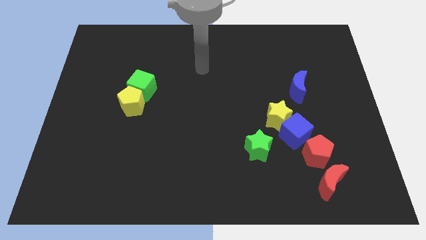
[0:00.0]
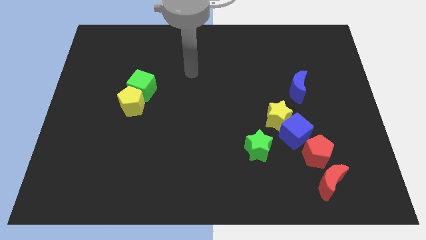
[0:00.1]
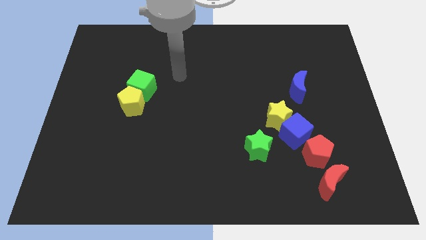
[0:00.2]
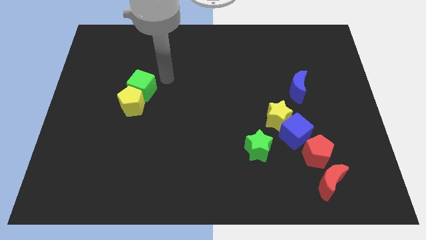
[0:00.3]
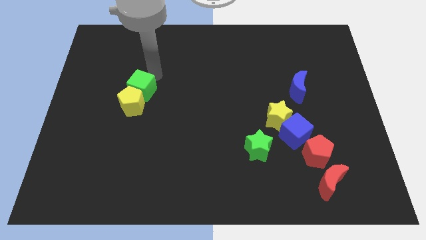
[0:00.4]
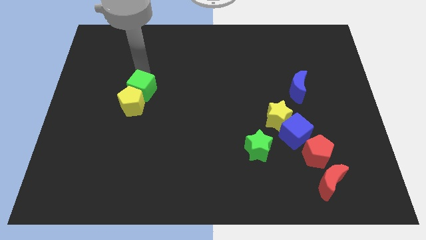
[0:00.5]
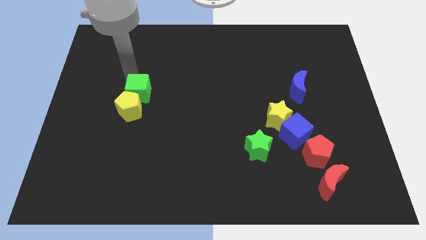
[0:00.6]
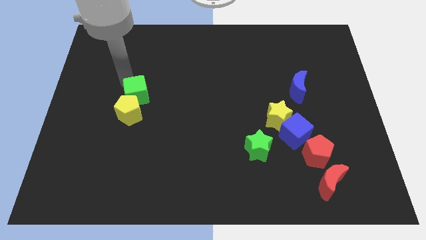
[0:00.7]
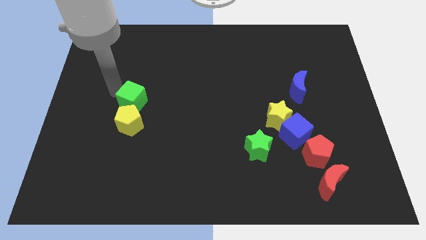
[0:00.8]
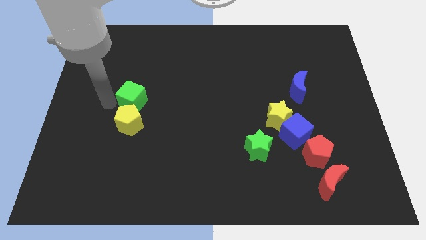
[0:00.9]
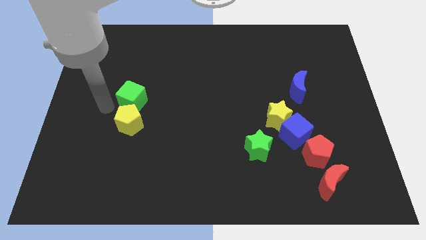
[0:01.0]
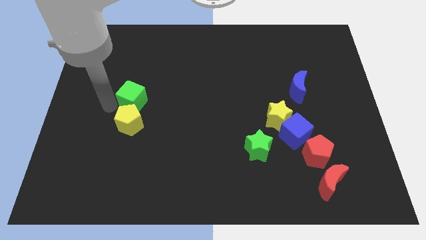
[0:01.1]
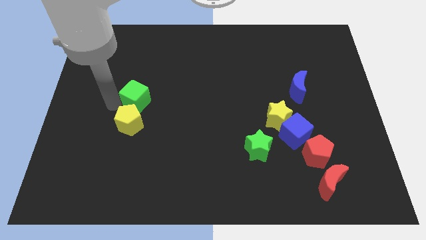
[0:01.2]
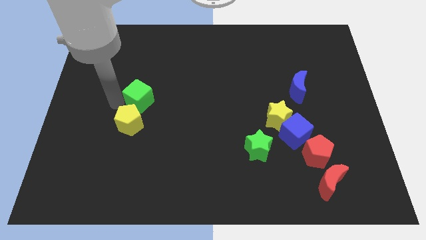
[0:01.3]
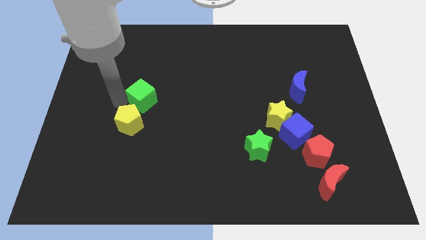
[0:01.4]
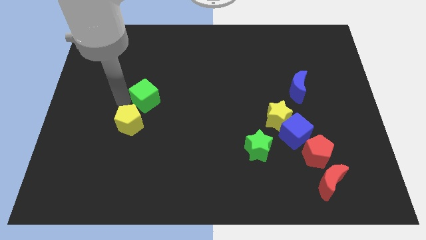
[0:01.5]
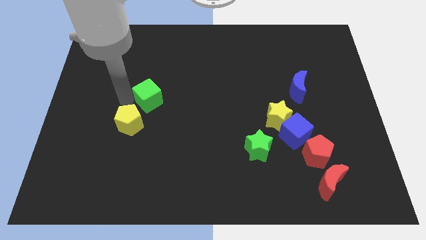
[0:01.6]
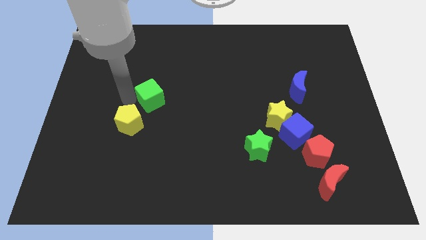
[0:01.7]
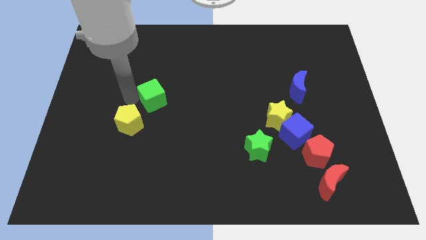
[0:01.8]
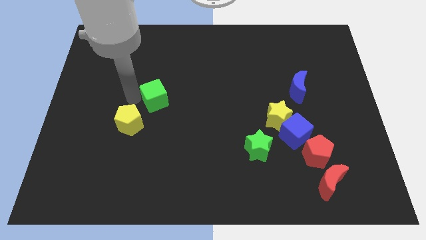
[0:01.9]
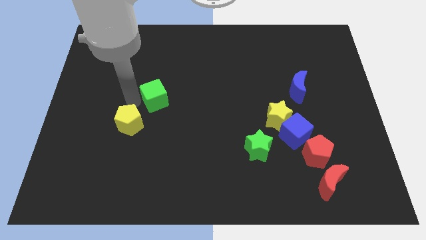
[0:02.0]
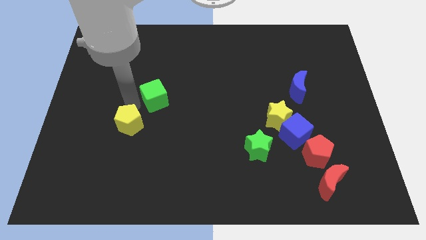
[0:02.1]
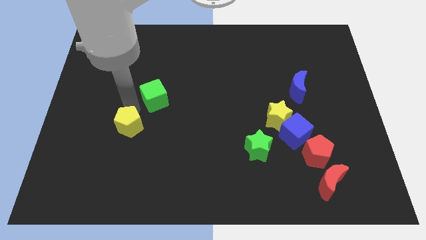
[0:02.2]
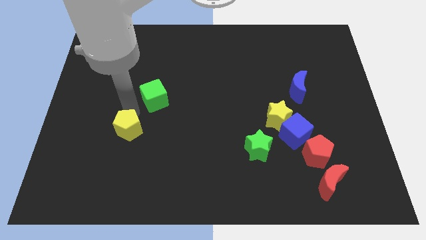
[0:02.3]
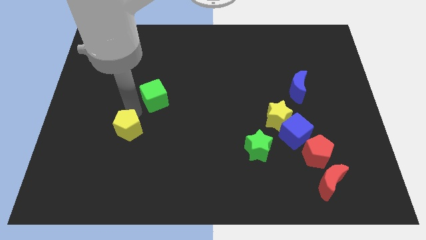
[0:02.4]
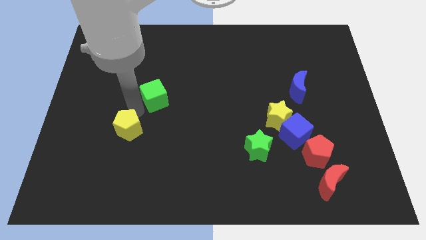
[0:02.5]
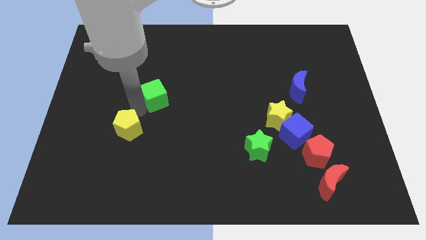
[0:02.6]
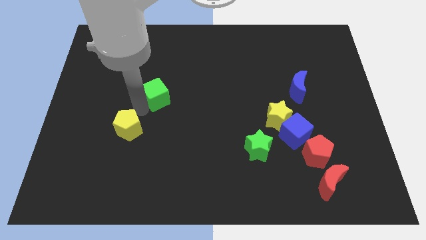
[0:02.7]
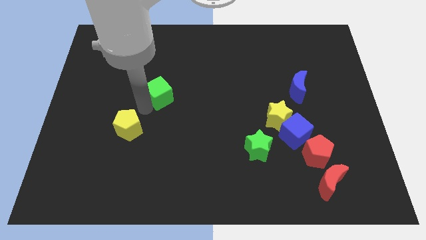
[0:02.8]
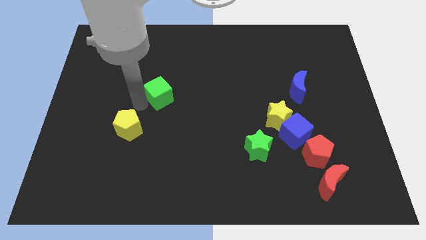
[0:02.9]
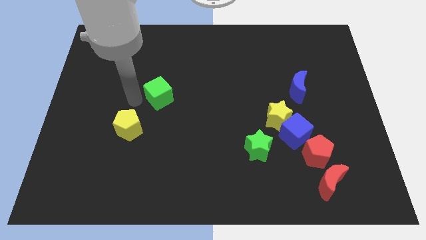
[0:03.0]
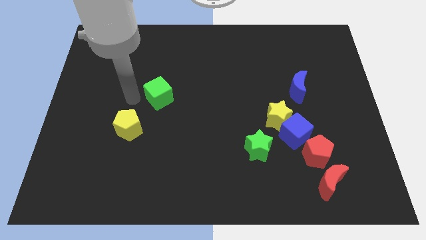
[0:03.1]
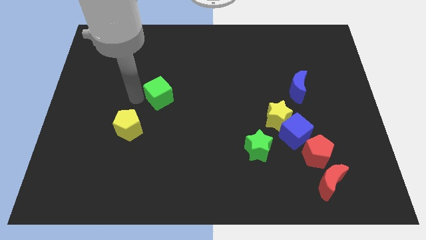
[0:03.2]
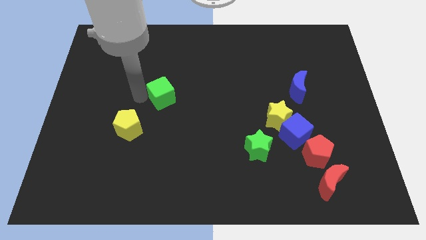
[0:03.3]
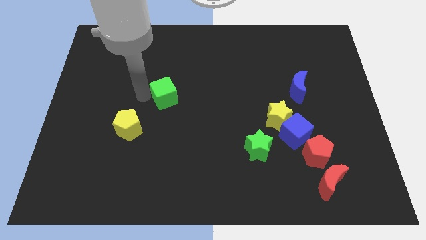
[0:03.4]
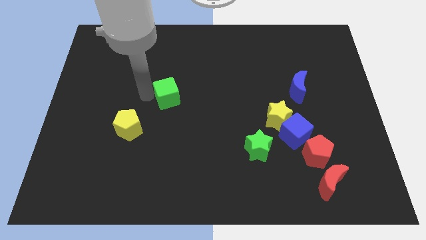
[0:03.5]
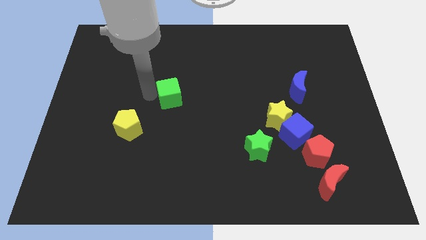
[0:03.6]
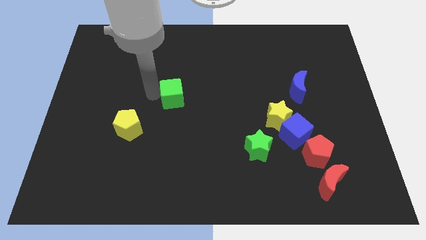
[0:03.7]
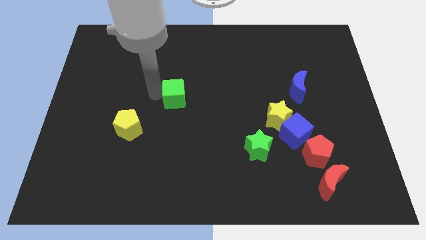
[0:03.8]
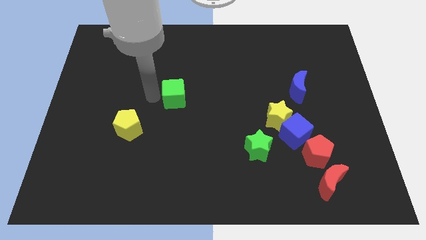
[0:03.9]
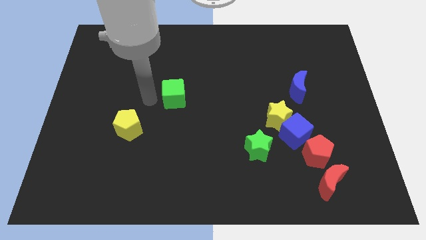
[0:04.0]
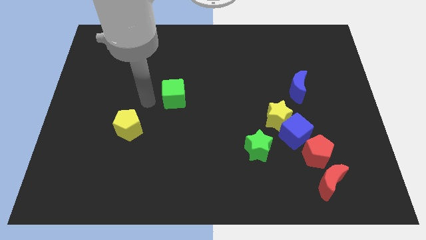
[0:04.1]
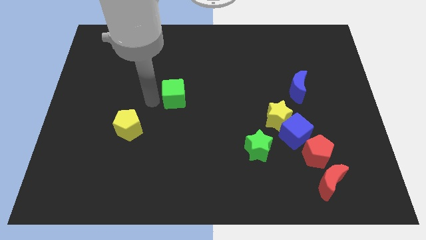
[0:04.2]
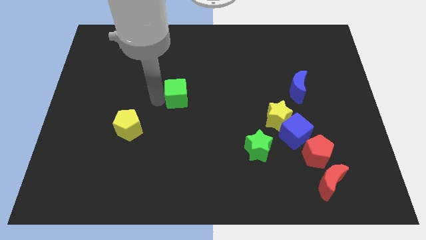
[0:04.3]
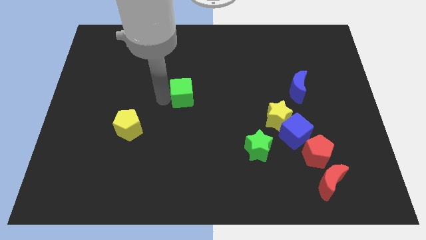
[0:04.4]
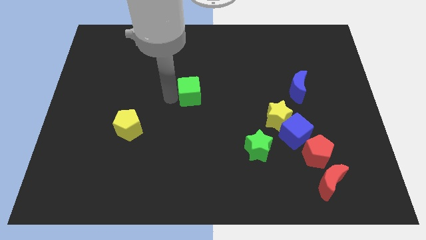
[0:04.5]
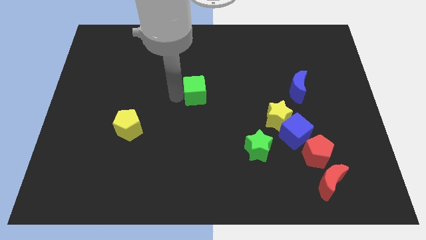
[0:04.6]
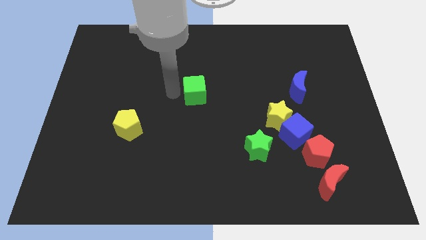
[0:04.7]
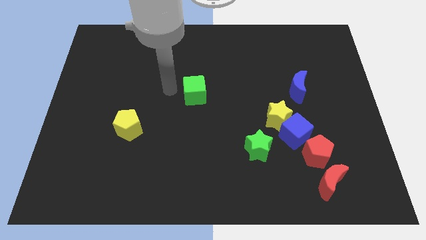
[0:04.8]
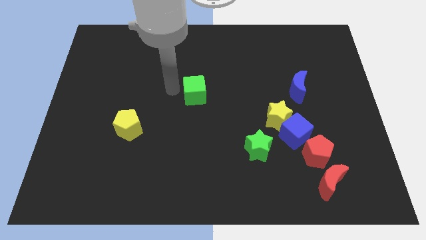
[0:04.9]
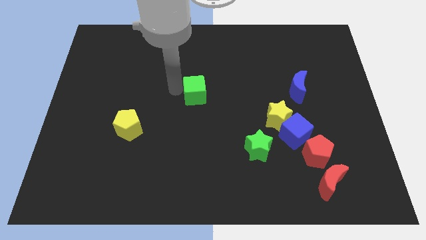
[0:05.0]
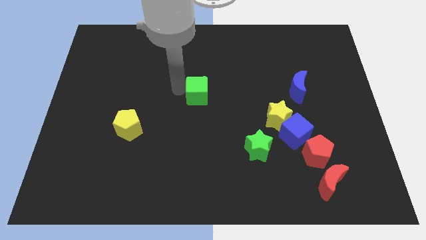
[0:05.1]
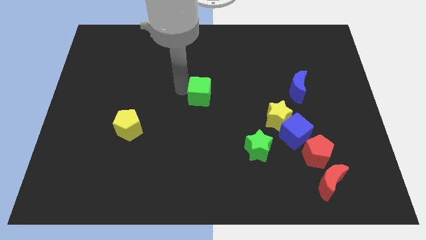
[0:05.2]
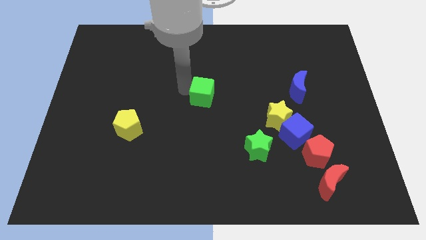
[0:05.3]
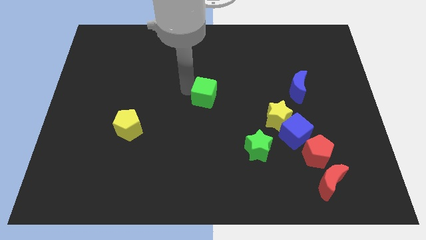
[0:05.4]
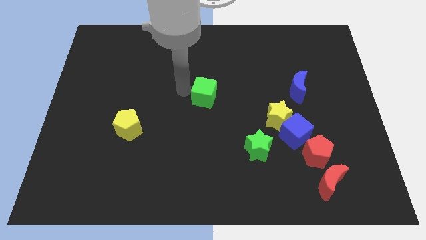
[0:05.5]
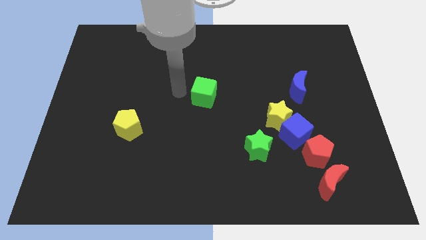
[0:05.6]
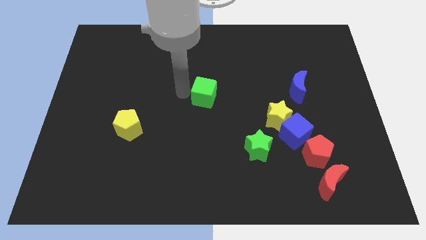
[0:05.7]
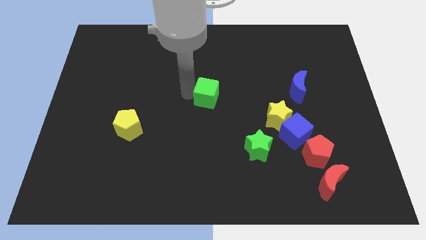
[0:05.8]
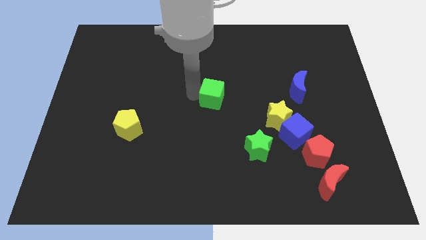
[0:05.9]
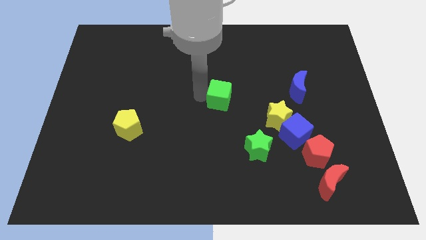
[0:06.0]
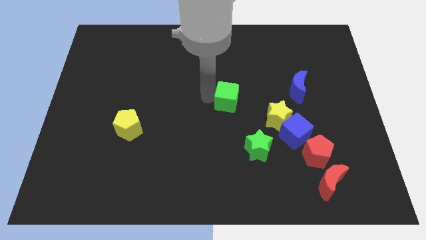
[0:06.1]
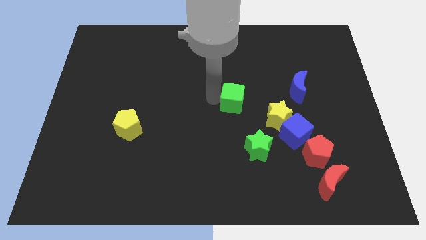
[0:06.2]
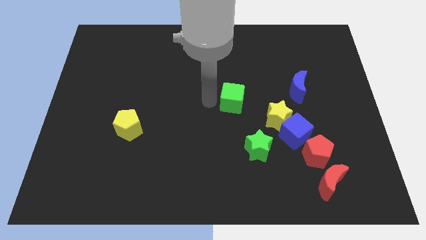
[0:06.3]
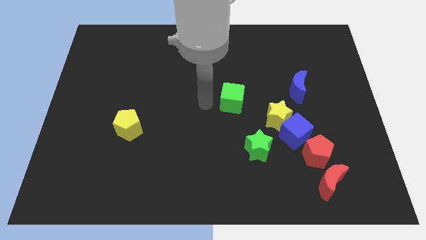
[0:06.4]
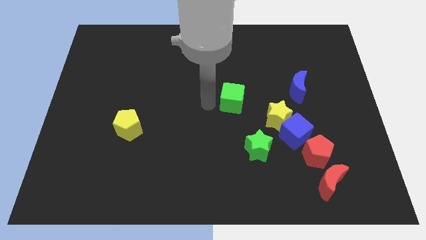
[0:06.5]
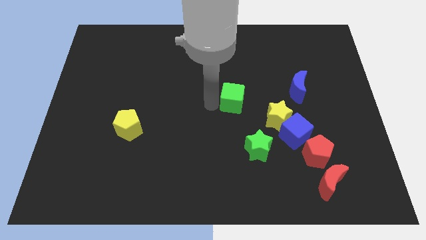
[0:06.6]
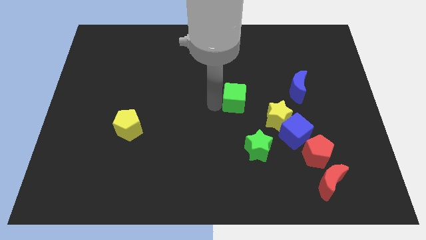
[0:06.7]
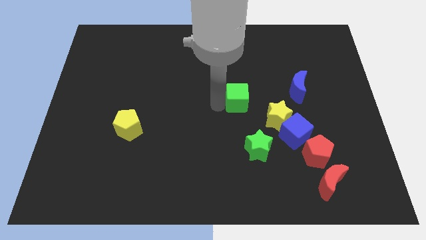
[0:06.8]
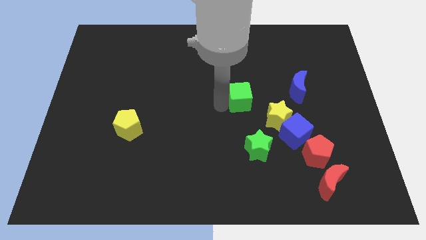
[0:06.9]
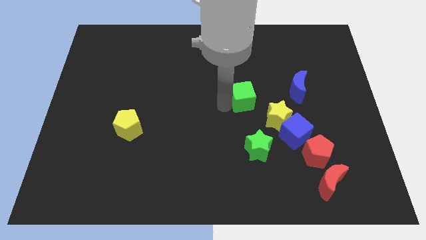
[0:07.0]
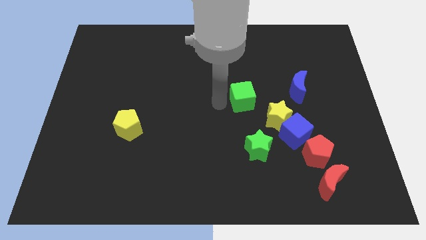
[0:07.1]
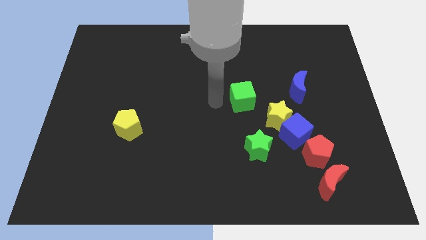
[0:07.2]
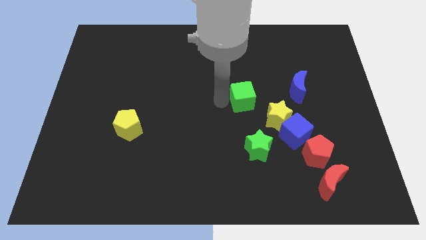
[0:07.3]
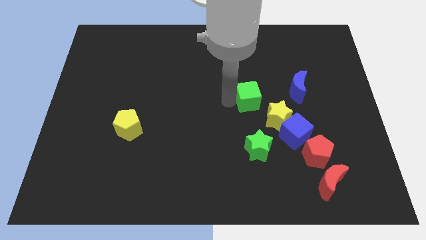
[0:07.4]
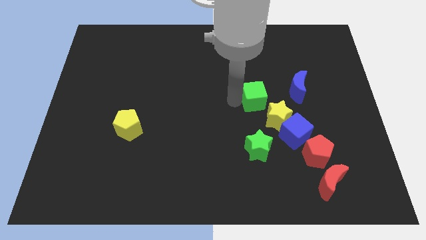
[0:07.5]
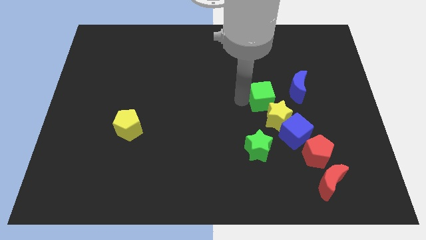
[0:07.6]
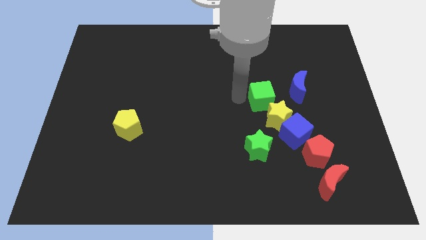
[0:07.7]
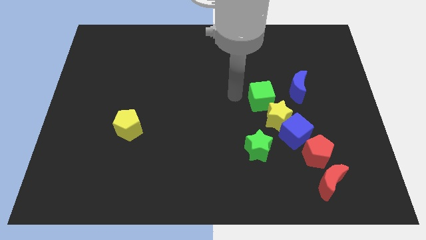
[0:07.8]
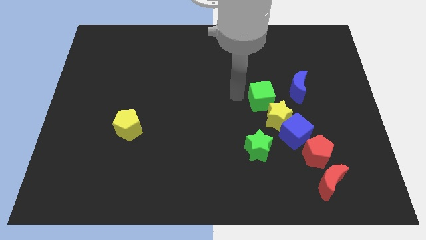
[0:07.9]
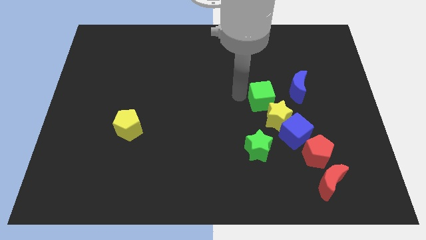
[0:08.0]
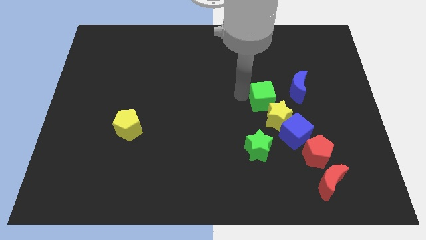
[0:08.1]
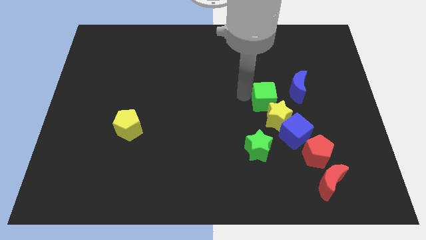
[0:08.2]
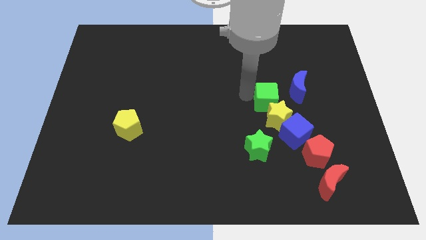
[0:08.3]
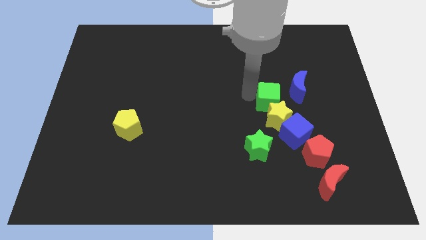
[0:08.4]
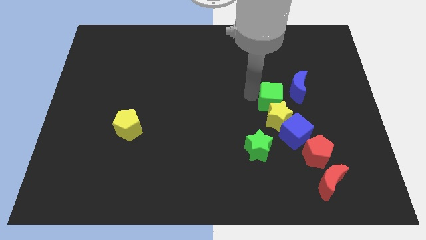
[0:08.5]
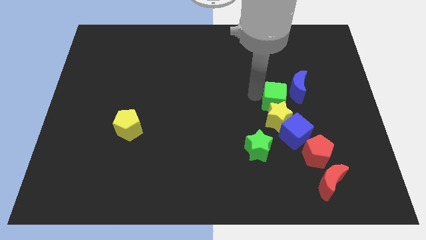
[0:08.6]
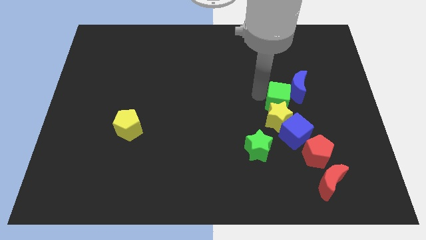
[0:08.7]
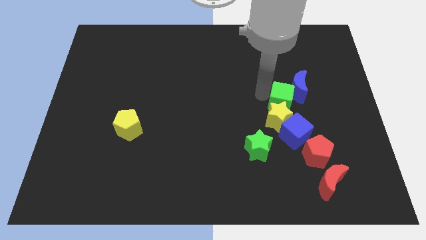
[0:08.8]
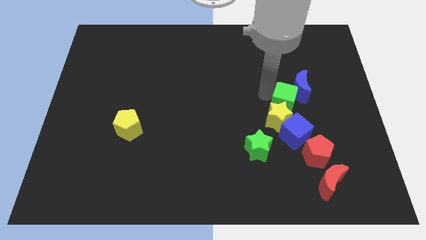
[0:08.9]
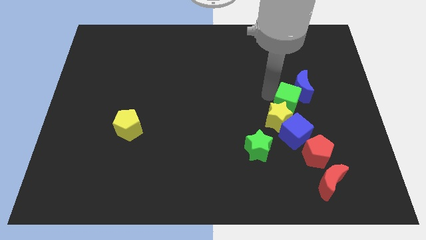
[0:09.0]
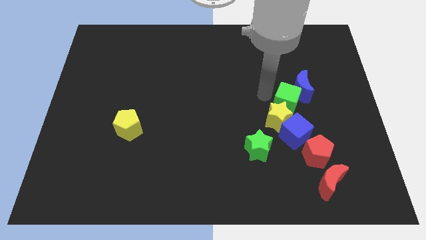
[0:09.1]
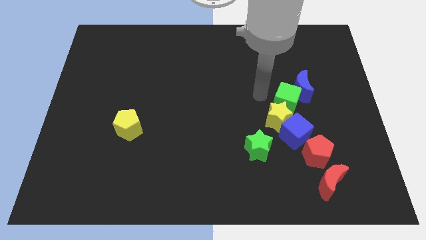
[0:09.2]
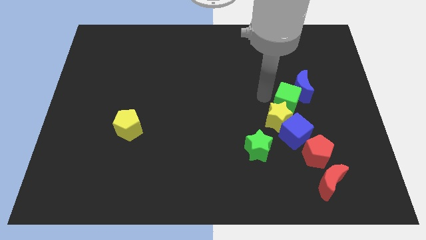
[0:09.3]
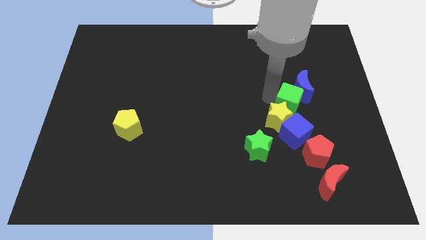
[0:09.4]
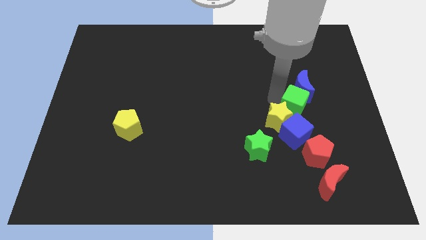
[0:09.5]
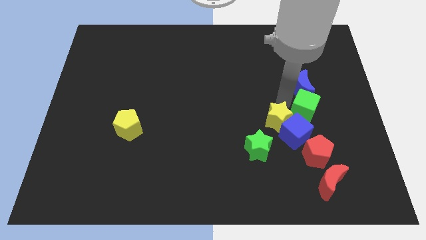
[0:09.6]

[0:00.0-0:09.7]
push the green cube diagonally down and to the right of the blue moon
